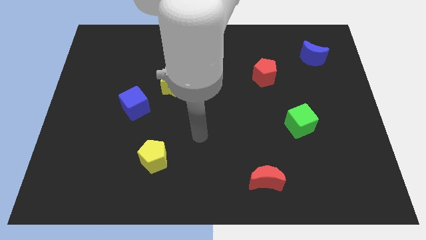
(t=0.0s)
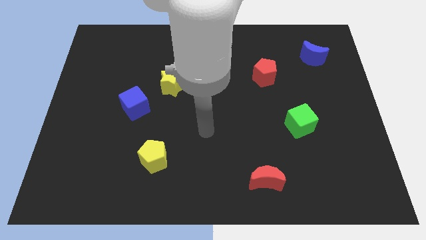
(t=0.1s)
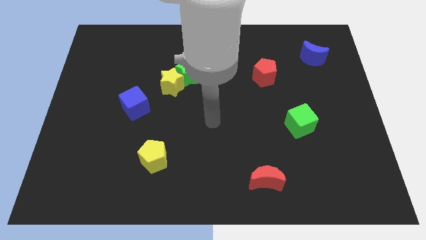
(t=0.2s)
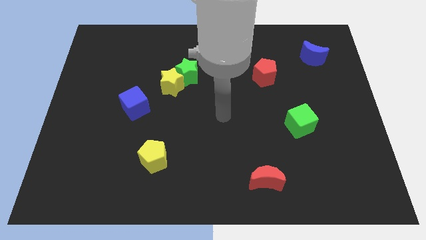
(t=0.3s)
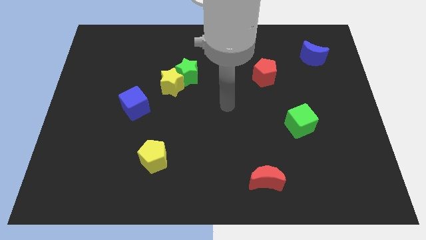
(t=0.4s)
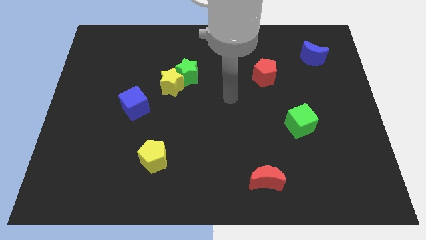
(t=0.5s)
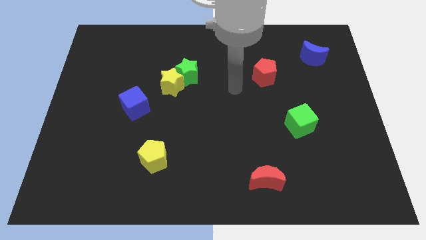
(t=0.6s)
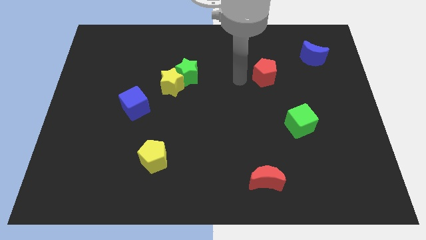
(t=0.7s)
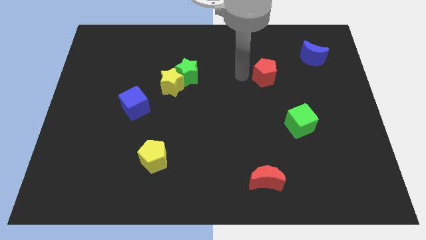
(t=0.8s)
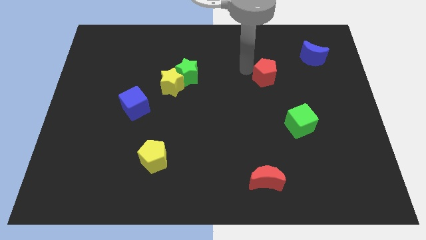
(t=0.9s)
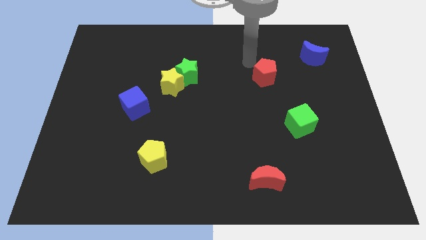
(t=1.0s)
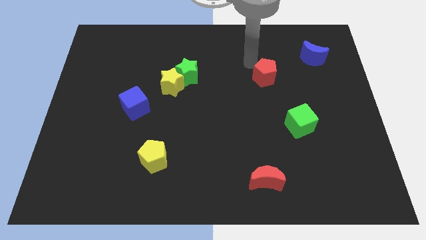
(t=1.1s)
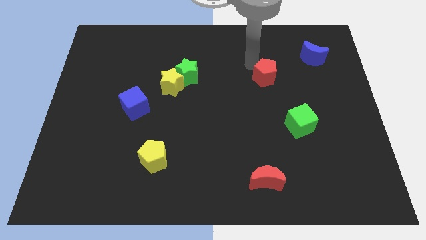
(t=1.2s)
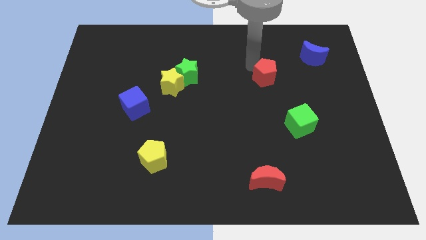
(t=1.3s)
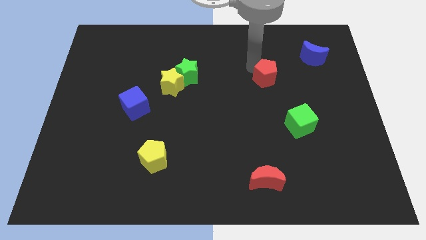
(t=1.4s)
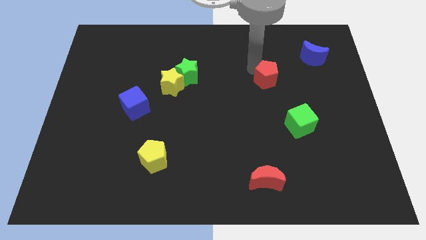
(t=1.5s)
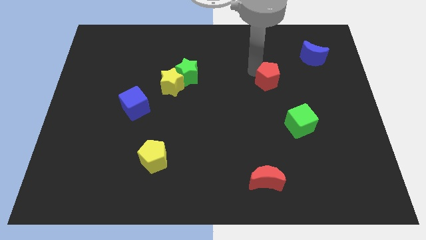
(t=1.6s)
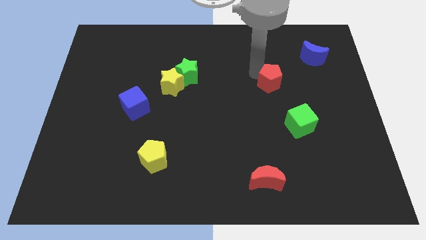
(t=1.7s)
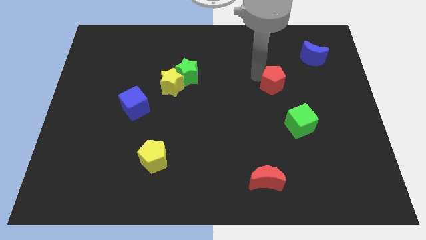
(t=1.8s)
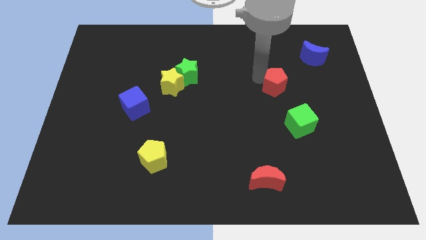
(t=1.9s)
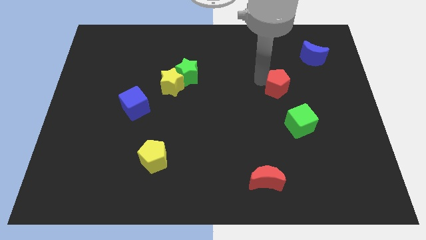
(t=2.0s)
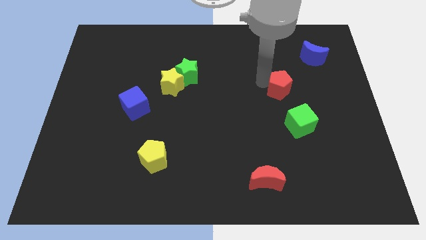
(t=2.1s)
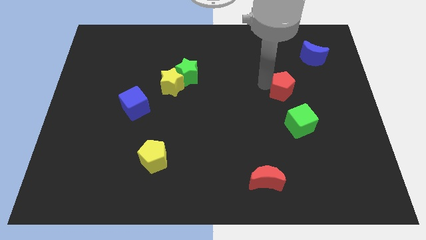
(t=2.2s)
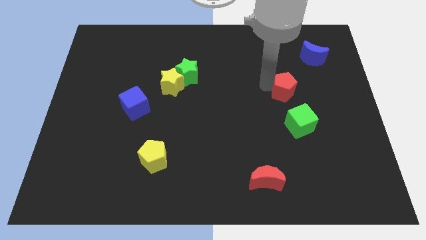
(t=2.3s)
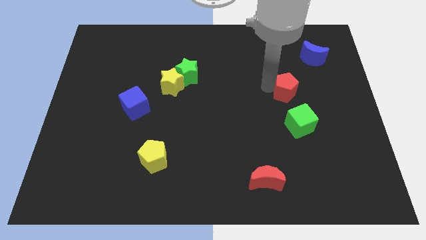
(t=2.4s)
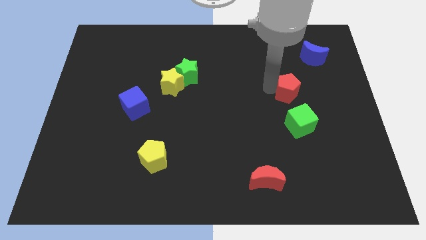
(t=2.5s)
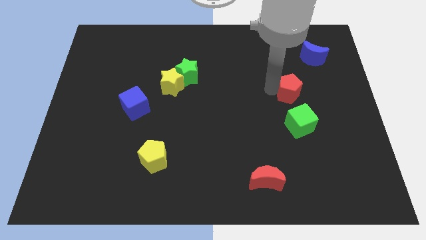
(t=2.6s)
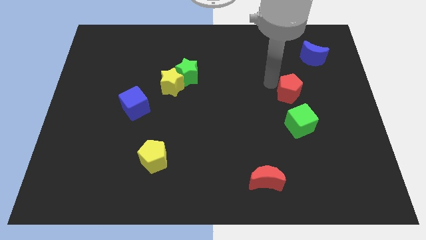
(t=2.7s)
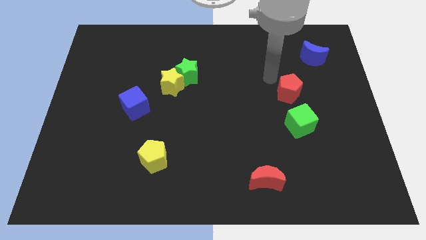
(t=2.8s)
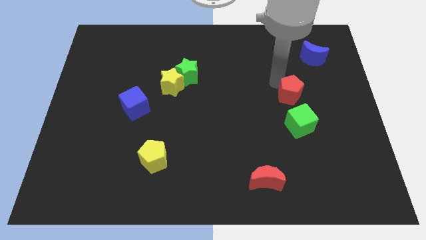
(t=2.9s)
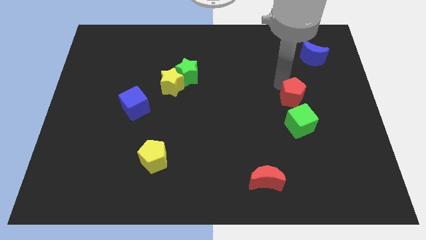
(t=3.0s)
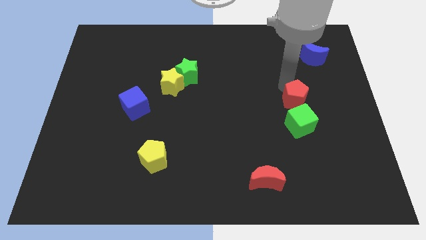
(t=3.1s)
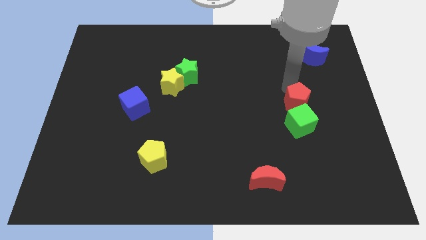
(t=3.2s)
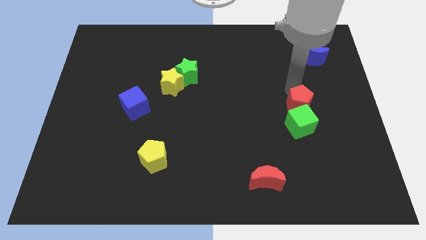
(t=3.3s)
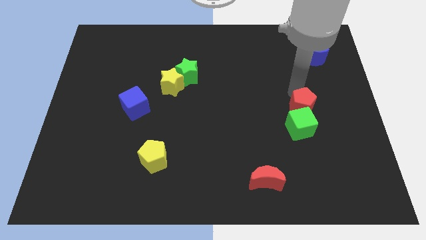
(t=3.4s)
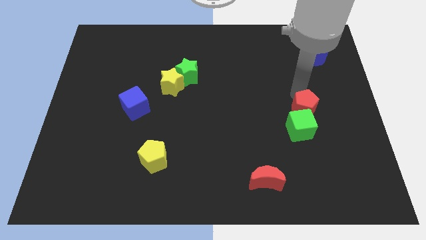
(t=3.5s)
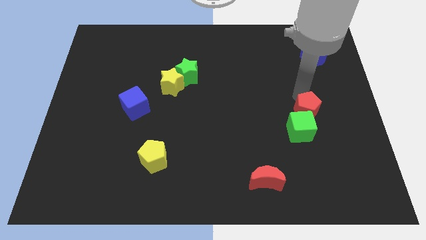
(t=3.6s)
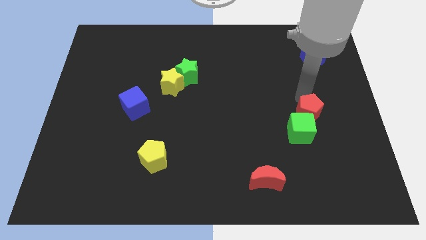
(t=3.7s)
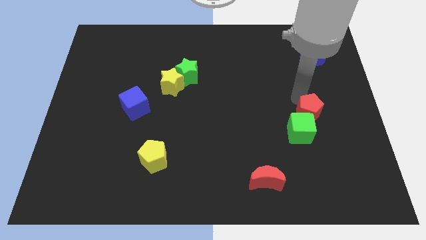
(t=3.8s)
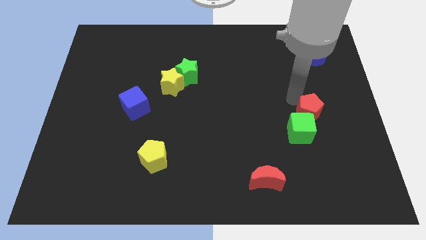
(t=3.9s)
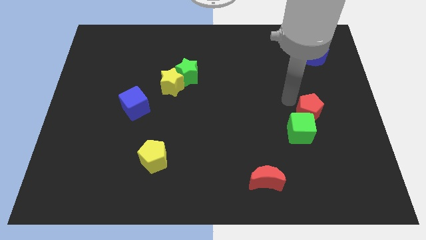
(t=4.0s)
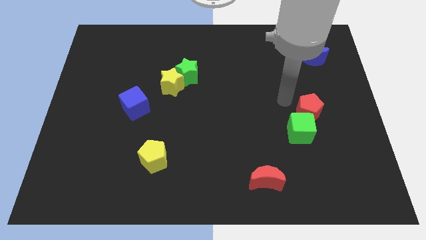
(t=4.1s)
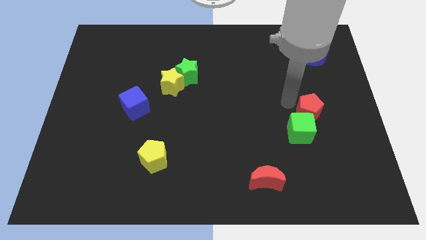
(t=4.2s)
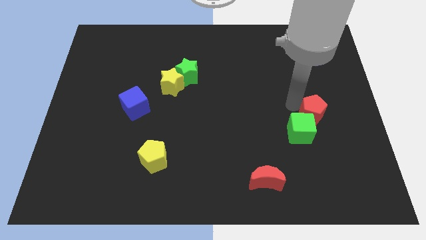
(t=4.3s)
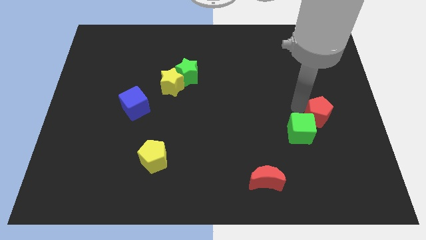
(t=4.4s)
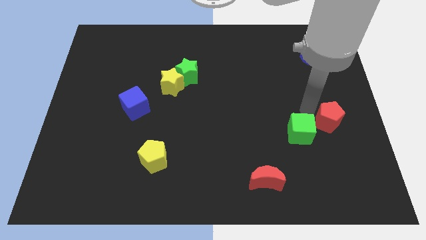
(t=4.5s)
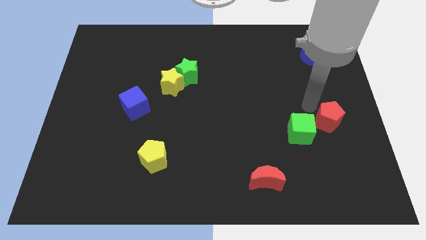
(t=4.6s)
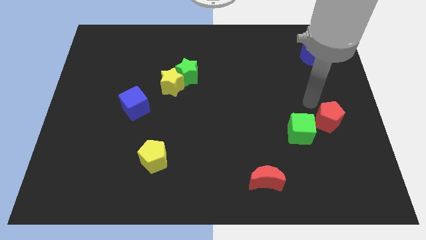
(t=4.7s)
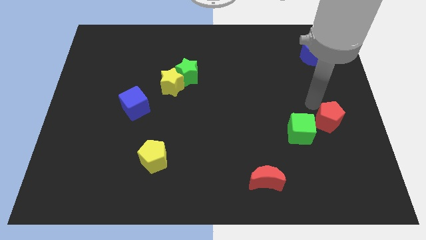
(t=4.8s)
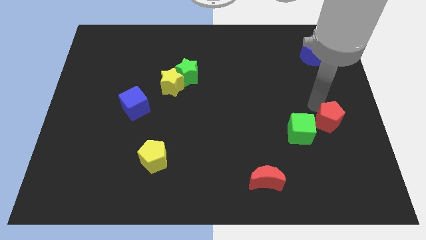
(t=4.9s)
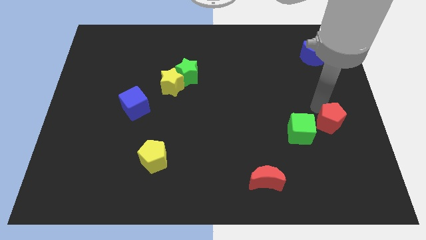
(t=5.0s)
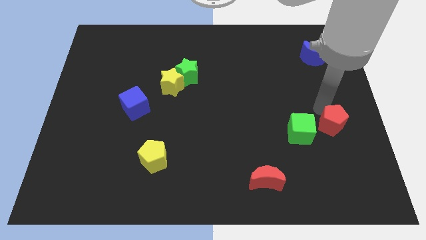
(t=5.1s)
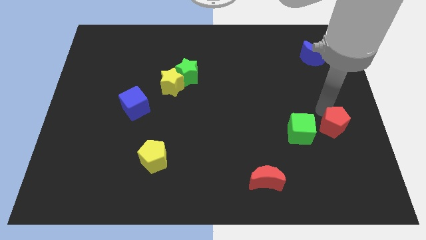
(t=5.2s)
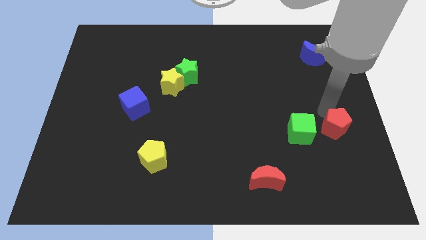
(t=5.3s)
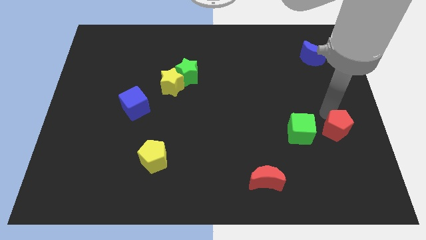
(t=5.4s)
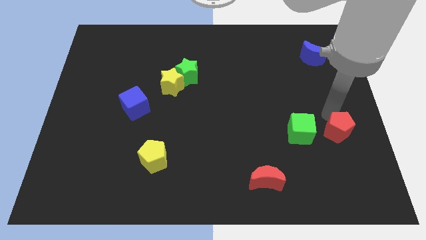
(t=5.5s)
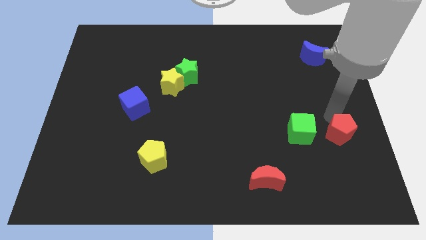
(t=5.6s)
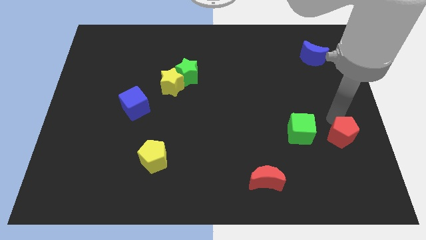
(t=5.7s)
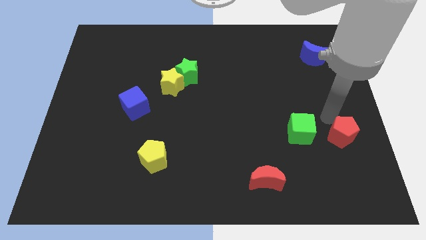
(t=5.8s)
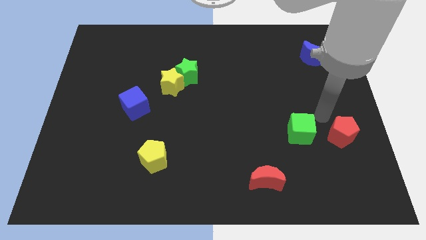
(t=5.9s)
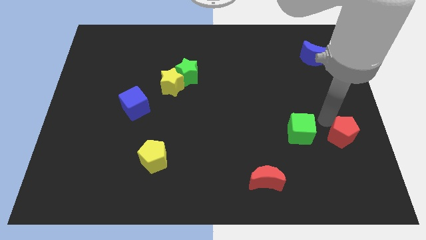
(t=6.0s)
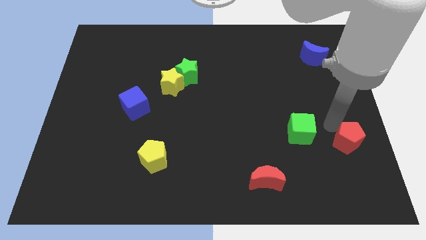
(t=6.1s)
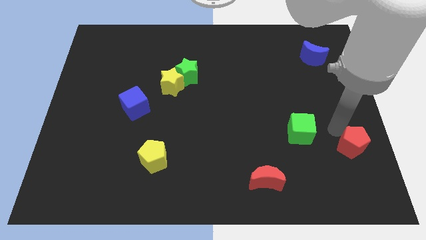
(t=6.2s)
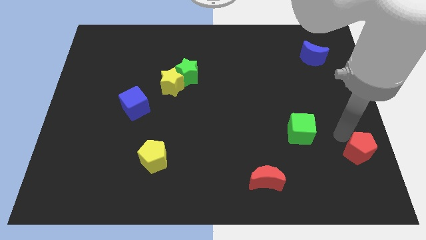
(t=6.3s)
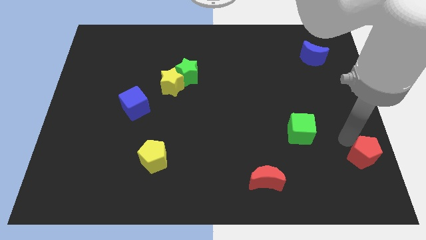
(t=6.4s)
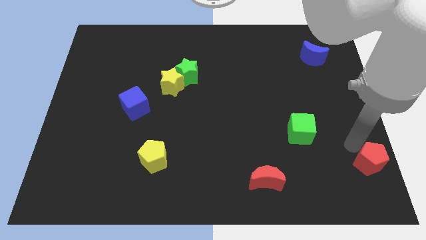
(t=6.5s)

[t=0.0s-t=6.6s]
slide the red pentagon to the lower right corner
